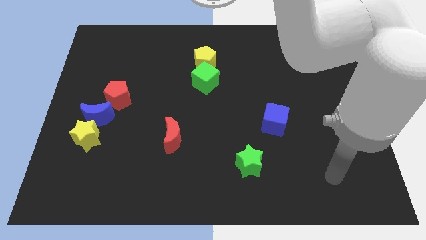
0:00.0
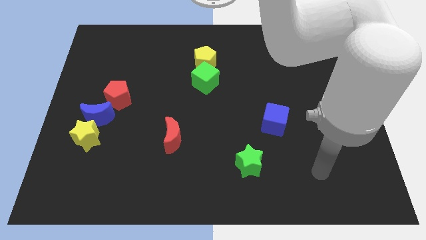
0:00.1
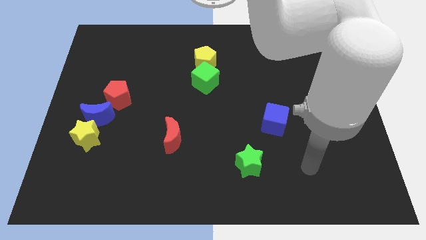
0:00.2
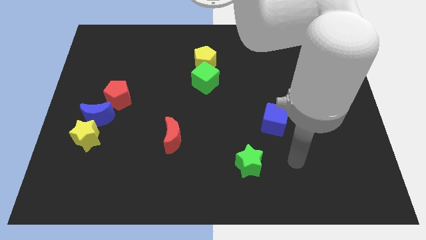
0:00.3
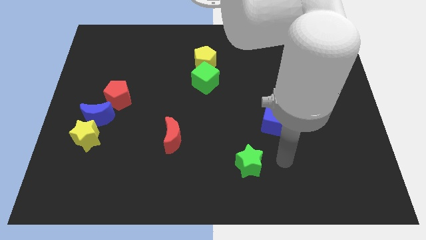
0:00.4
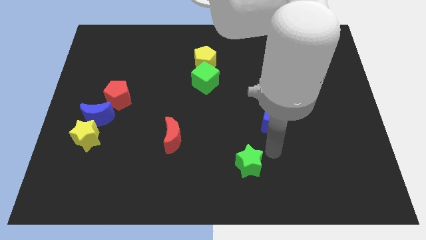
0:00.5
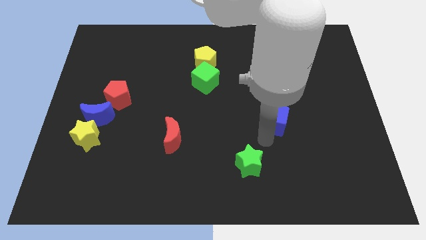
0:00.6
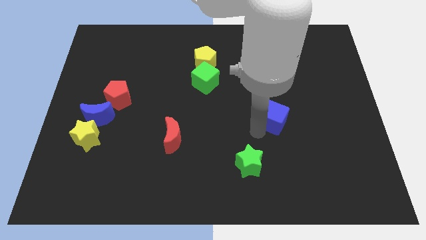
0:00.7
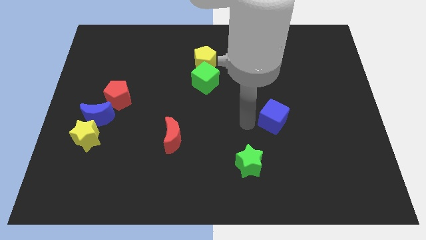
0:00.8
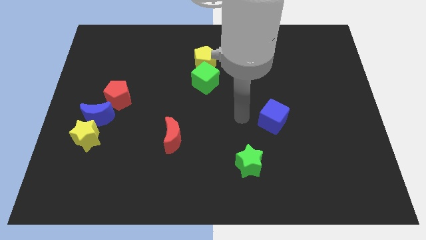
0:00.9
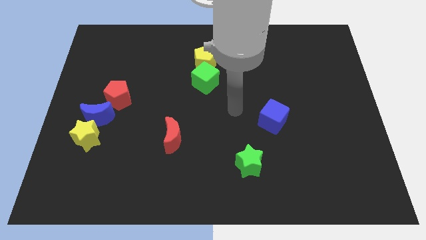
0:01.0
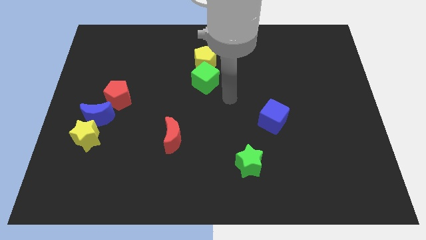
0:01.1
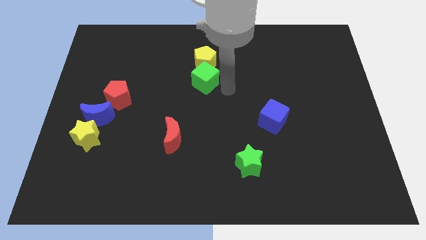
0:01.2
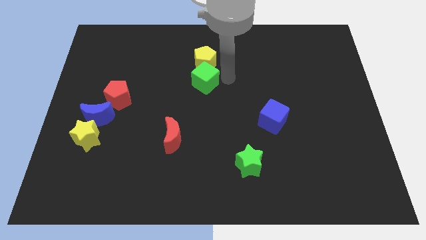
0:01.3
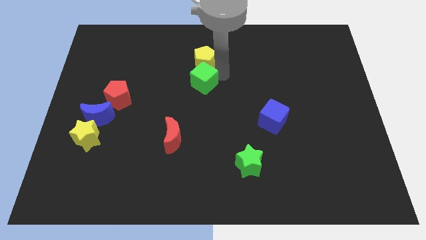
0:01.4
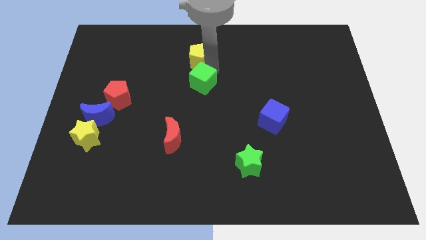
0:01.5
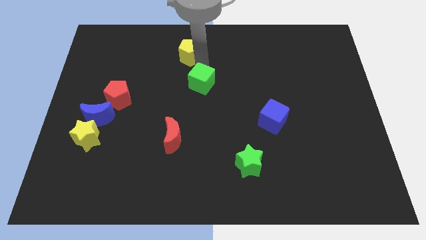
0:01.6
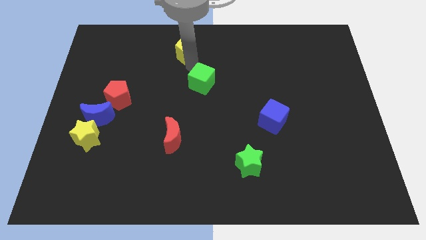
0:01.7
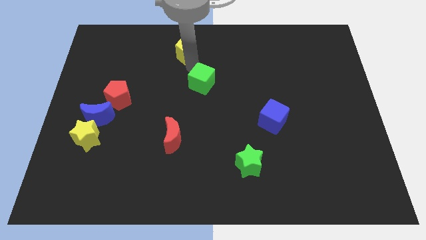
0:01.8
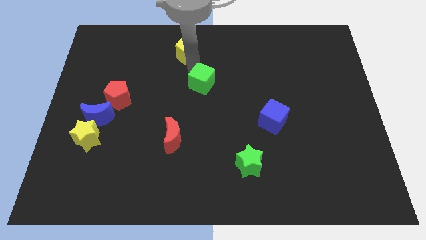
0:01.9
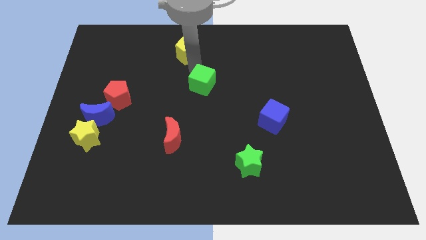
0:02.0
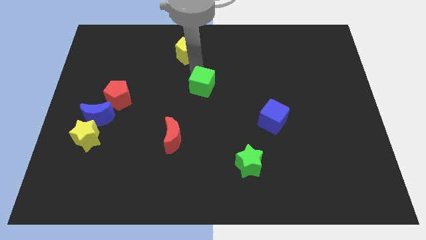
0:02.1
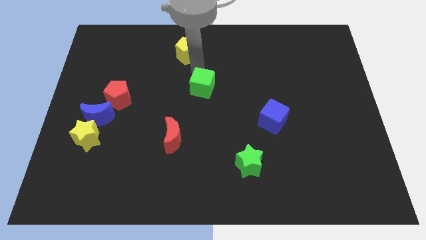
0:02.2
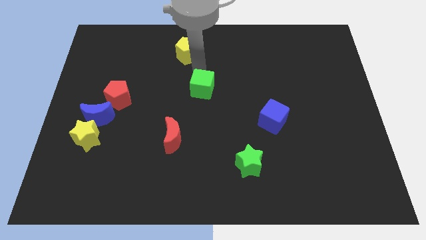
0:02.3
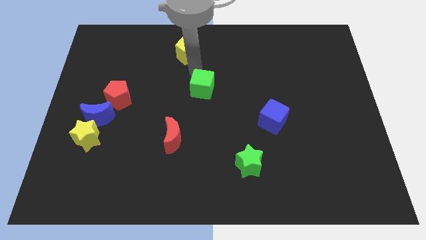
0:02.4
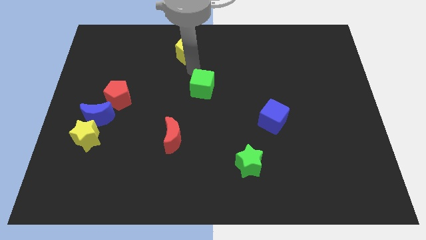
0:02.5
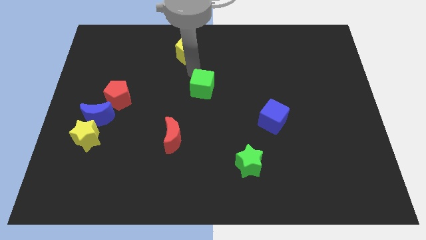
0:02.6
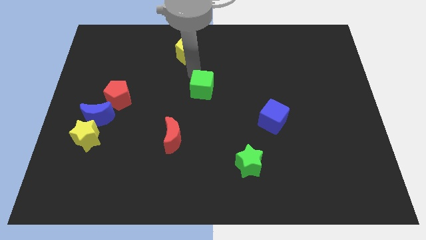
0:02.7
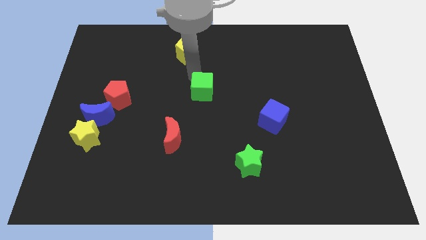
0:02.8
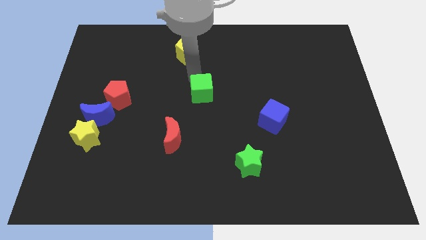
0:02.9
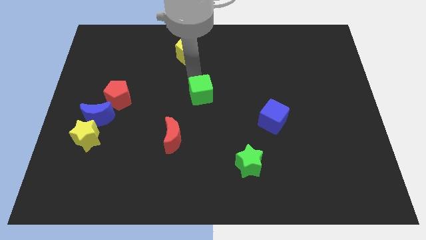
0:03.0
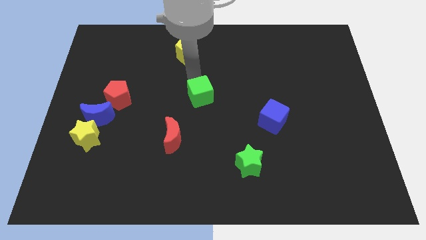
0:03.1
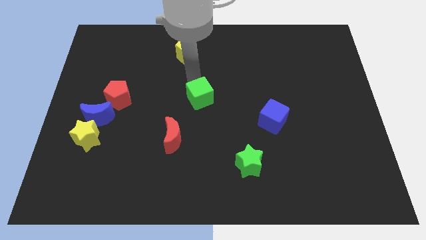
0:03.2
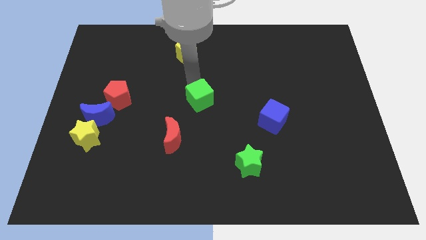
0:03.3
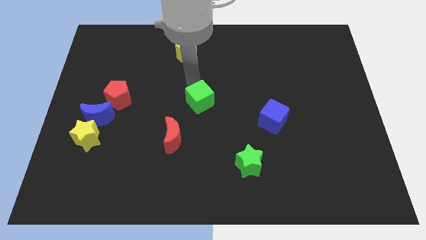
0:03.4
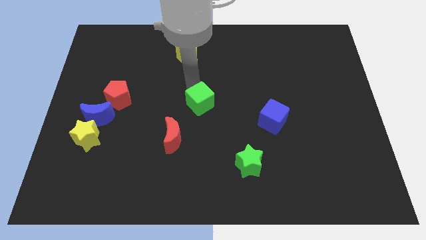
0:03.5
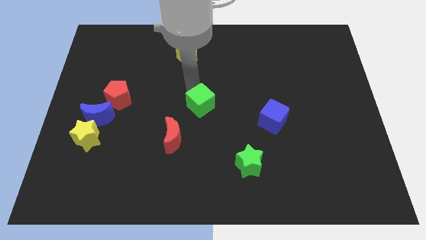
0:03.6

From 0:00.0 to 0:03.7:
push the green cube a bit down

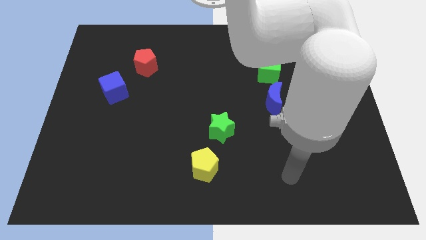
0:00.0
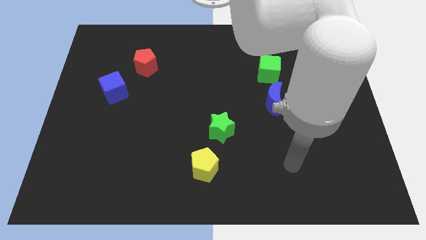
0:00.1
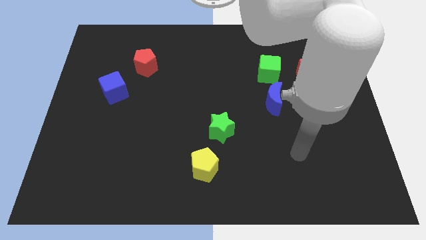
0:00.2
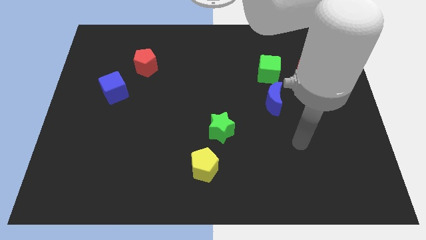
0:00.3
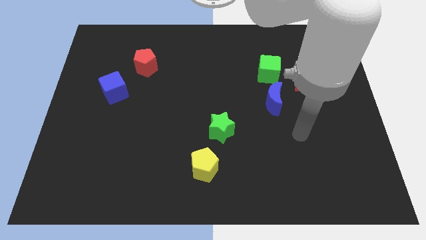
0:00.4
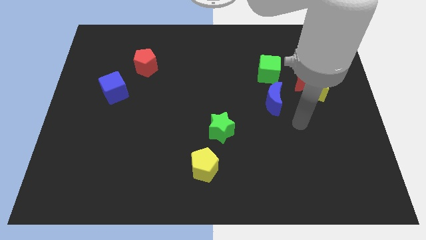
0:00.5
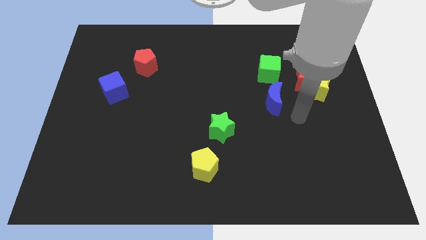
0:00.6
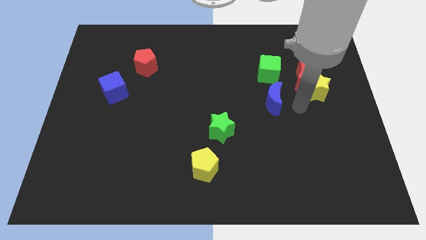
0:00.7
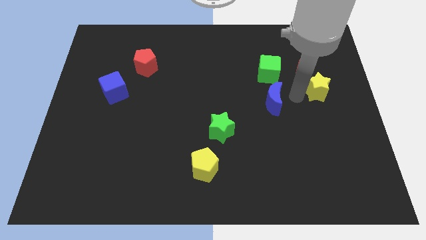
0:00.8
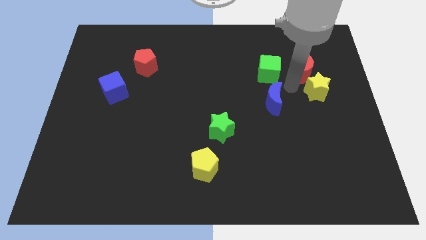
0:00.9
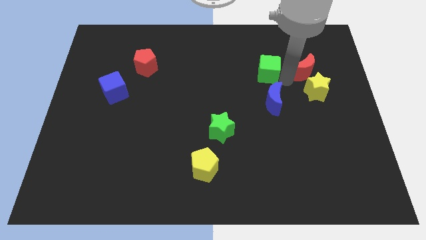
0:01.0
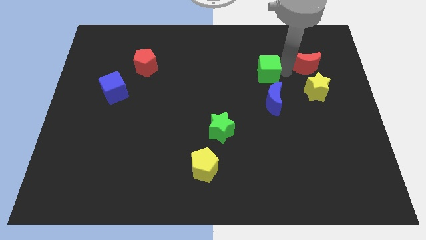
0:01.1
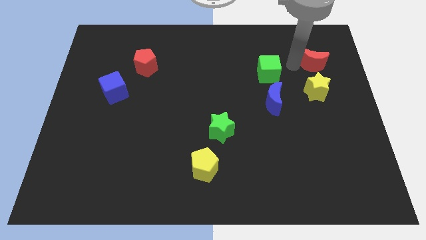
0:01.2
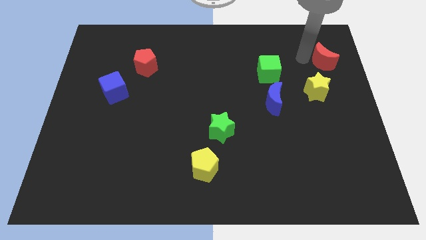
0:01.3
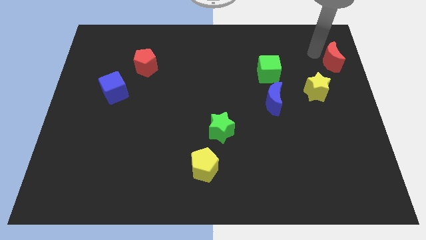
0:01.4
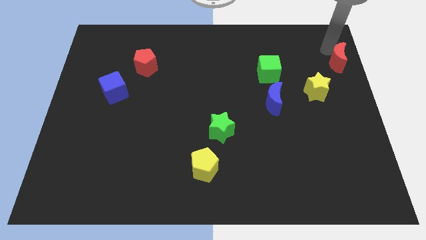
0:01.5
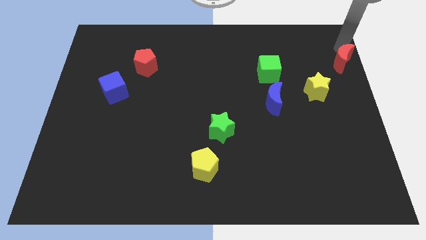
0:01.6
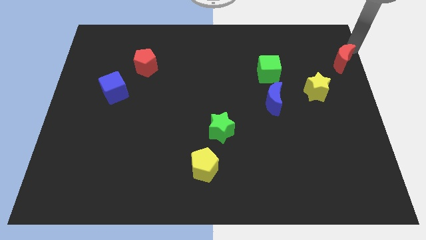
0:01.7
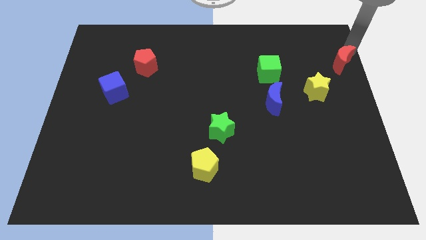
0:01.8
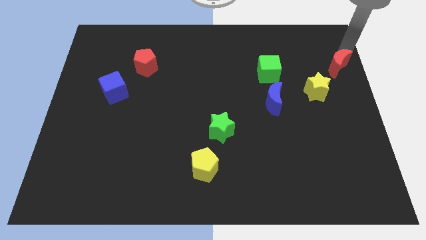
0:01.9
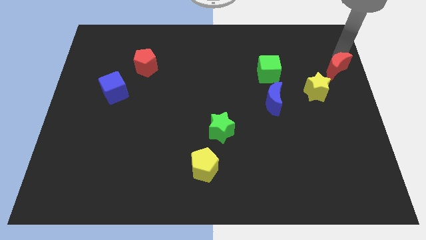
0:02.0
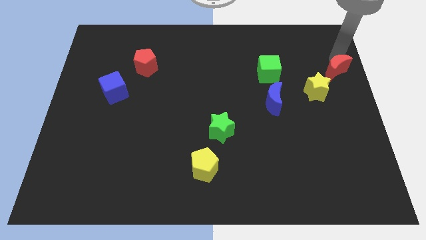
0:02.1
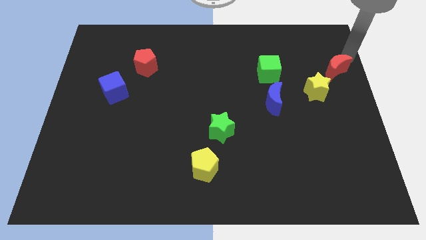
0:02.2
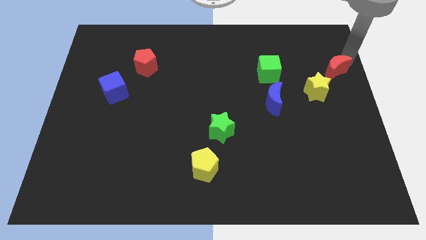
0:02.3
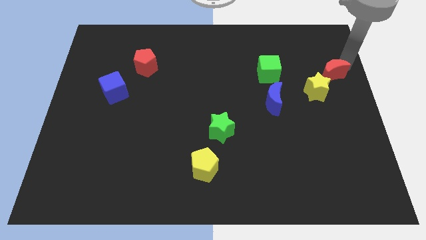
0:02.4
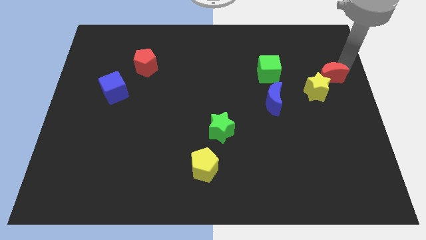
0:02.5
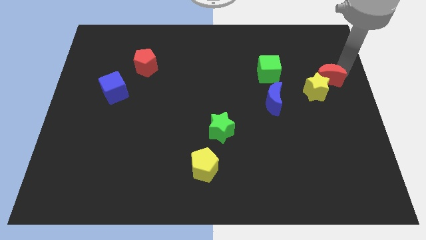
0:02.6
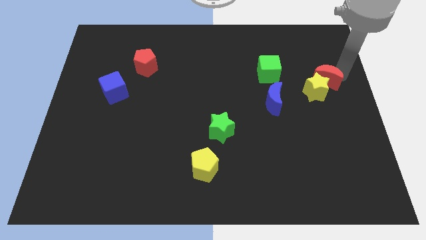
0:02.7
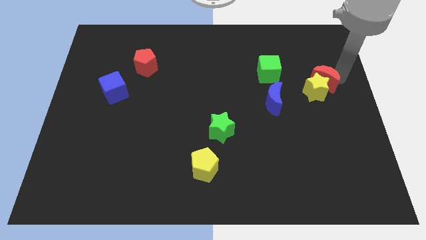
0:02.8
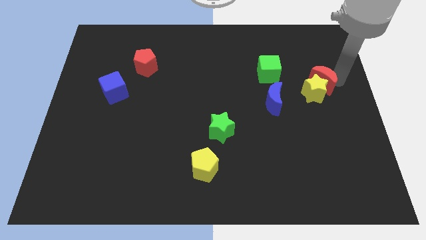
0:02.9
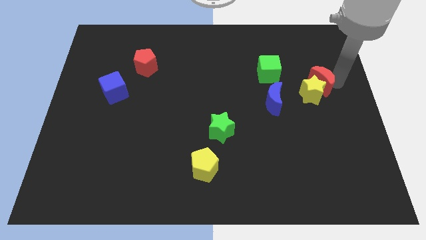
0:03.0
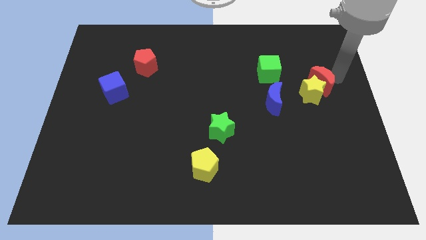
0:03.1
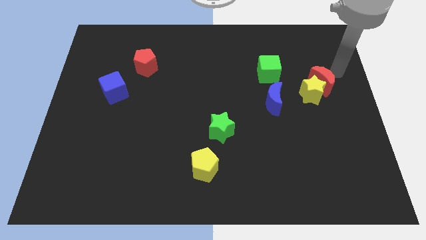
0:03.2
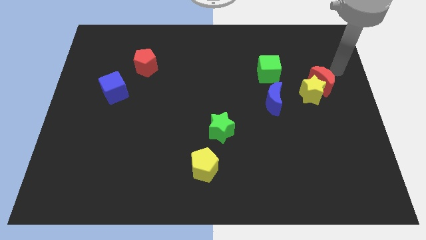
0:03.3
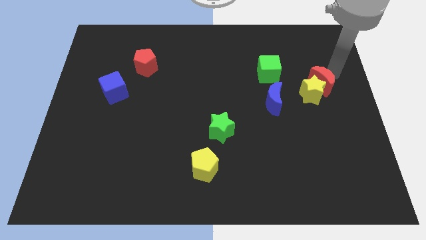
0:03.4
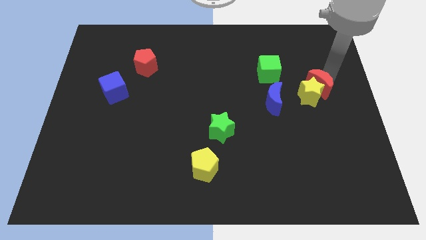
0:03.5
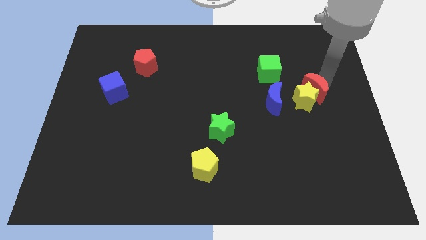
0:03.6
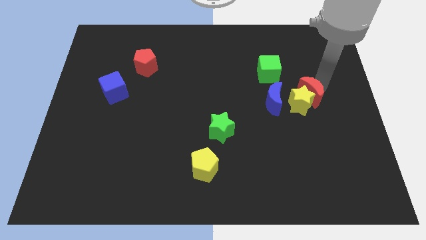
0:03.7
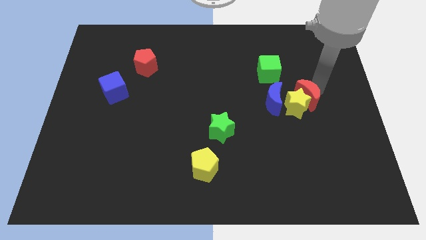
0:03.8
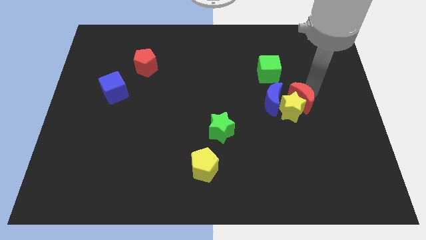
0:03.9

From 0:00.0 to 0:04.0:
move the red moon a bit down

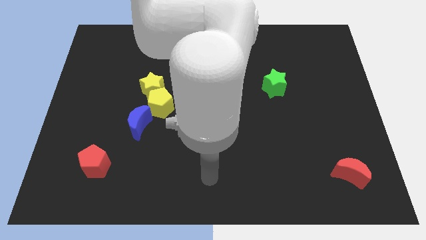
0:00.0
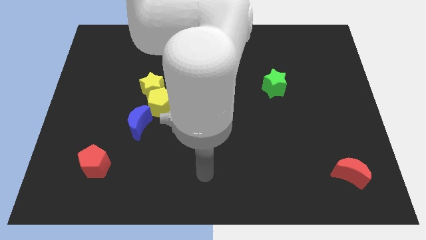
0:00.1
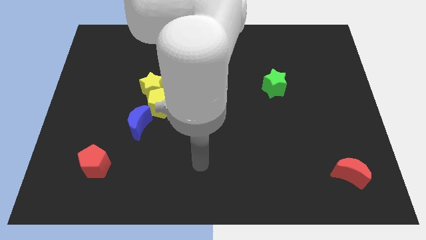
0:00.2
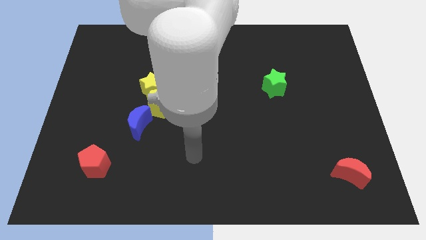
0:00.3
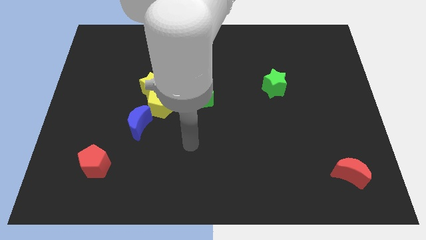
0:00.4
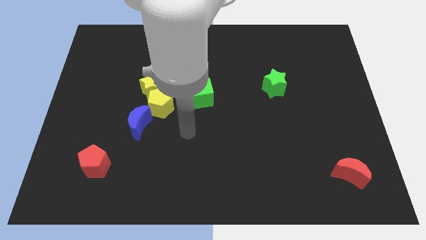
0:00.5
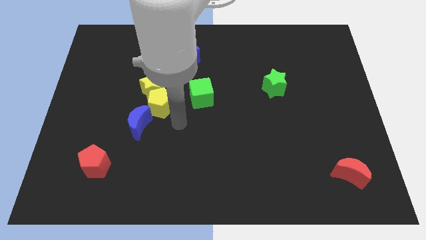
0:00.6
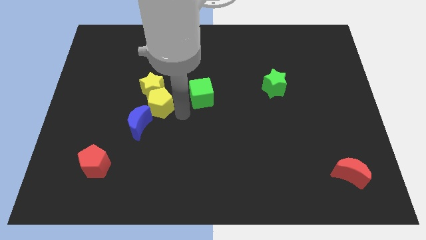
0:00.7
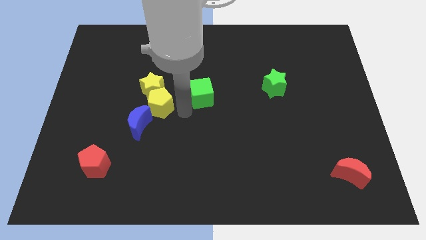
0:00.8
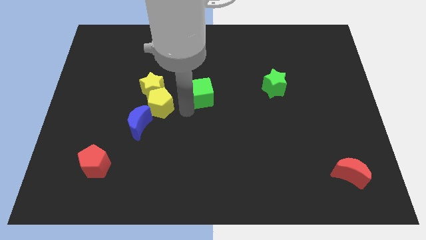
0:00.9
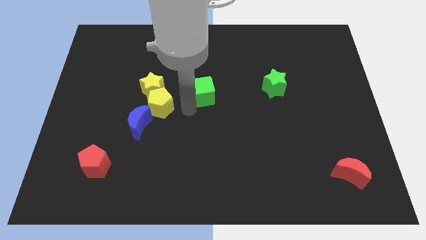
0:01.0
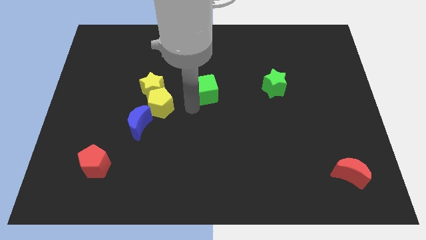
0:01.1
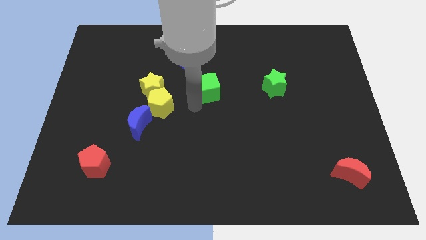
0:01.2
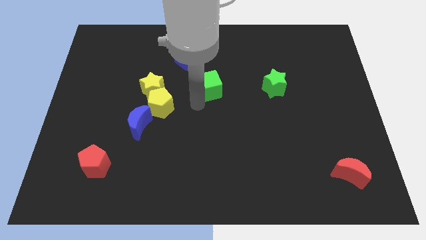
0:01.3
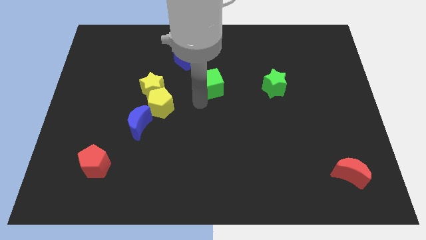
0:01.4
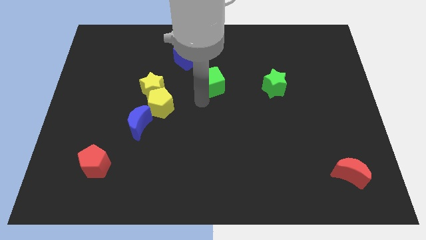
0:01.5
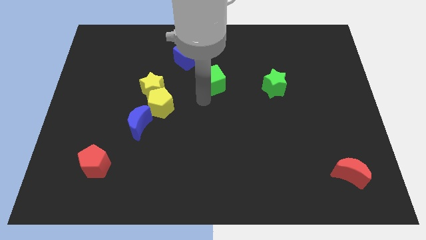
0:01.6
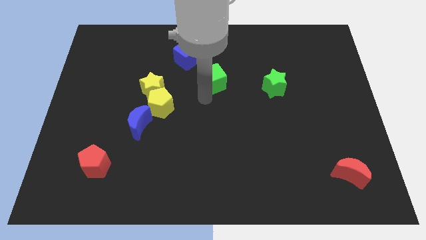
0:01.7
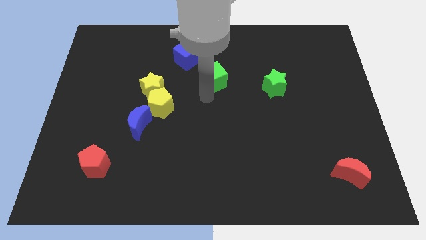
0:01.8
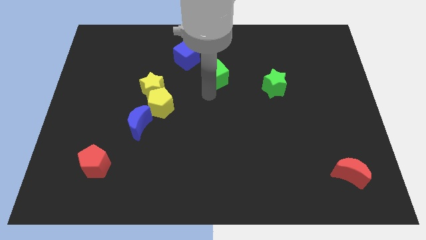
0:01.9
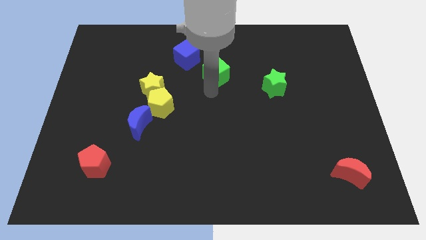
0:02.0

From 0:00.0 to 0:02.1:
slightly slide the green cube upwards and to the right
